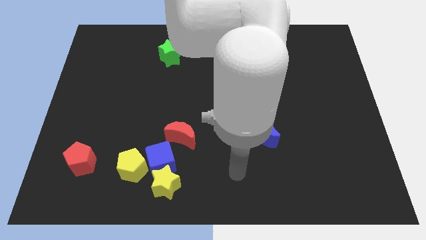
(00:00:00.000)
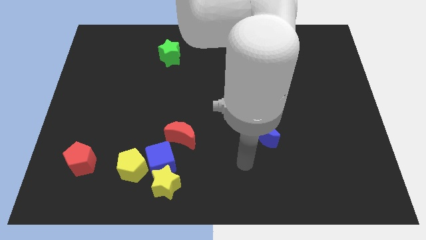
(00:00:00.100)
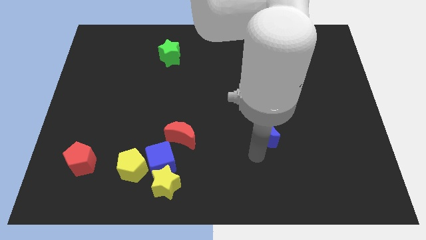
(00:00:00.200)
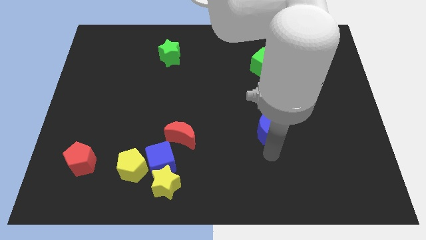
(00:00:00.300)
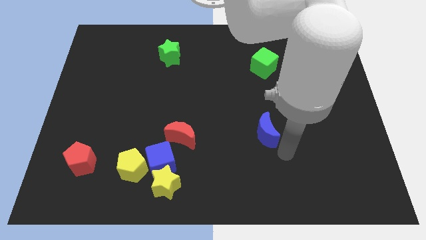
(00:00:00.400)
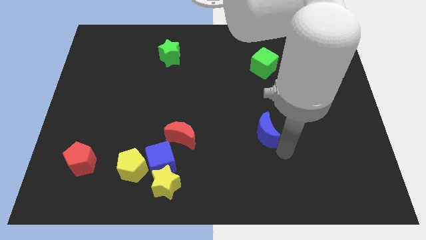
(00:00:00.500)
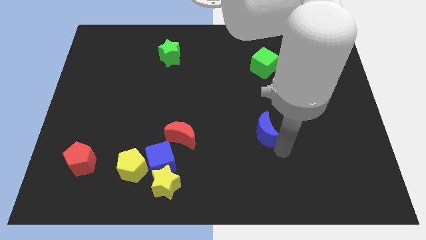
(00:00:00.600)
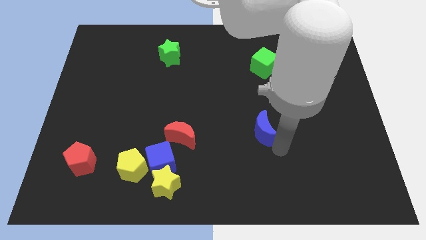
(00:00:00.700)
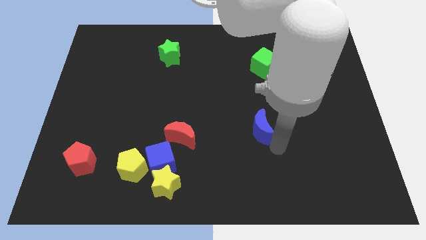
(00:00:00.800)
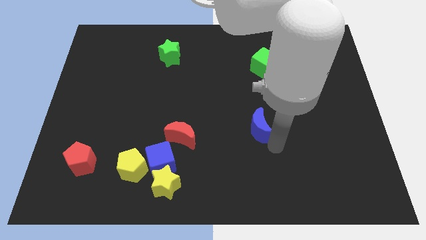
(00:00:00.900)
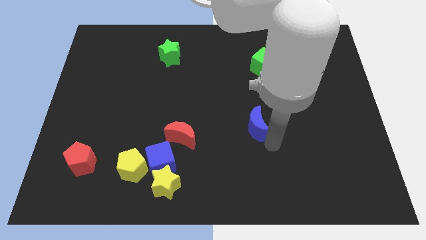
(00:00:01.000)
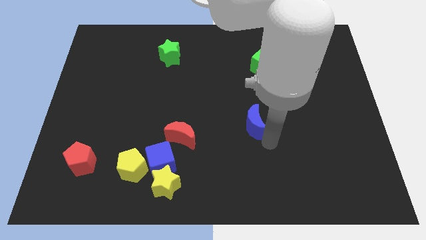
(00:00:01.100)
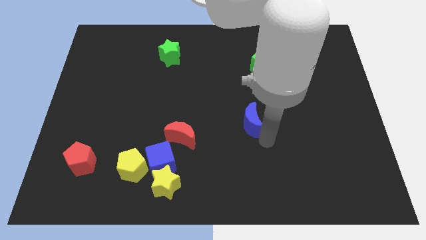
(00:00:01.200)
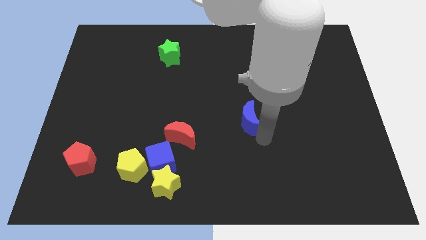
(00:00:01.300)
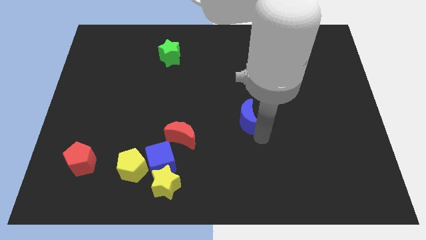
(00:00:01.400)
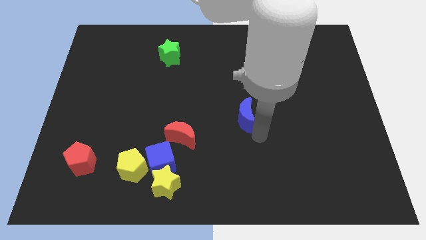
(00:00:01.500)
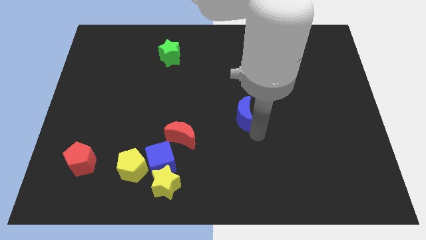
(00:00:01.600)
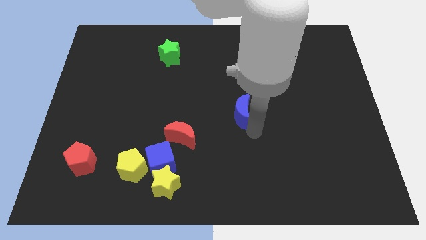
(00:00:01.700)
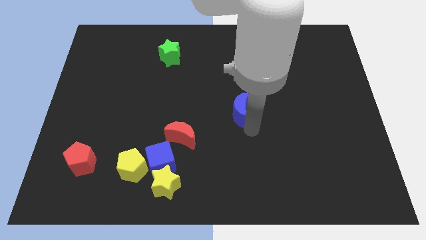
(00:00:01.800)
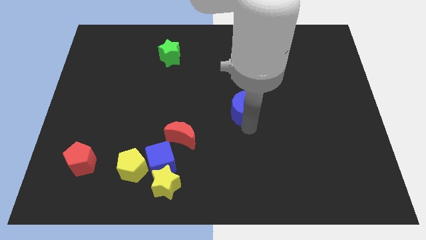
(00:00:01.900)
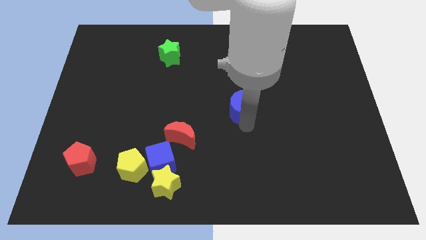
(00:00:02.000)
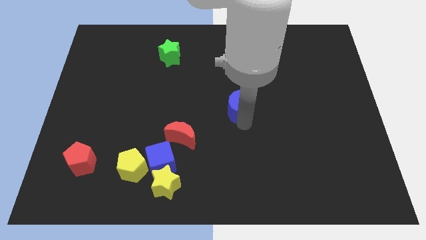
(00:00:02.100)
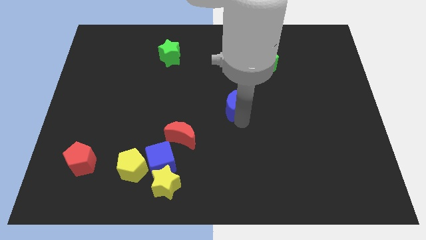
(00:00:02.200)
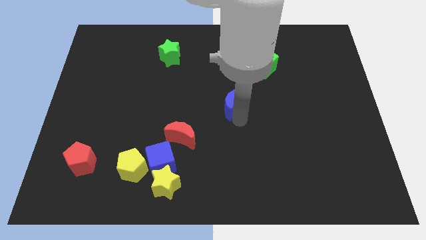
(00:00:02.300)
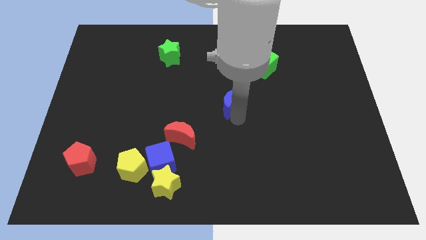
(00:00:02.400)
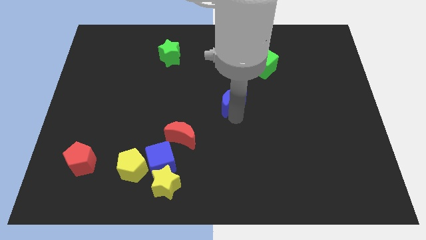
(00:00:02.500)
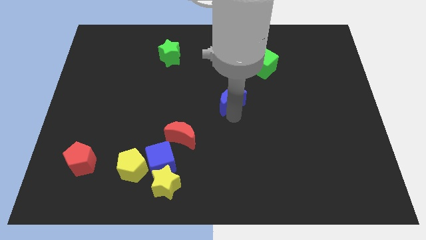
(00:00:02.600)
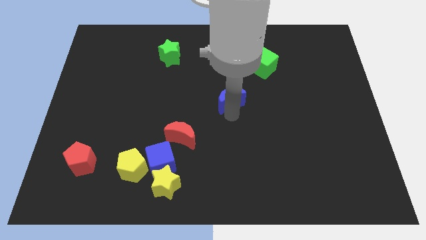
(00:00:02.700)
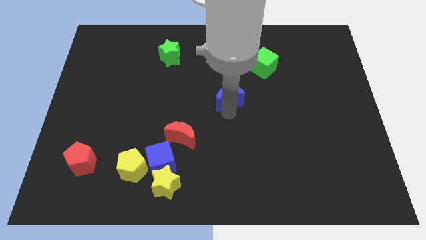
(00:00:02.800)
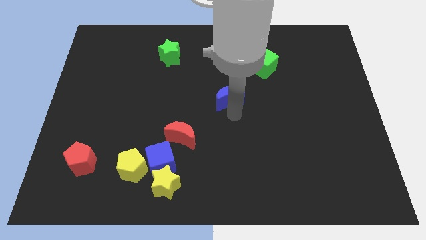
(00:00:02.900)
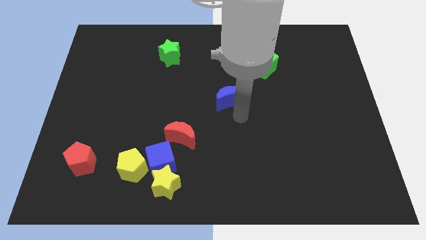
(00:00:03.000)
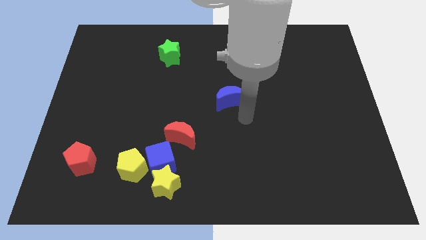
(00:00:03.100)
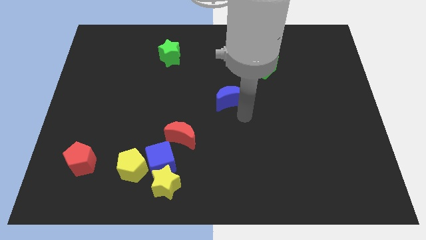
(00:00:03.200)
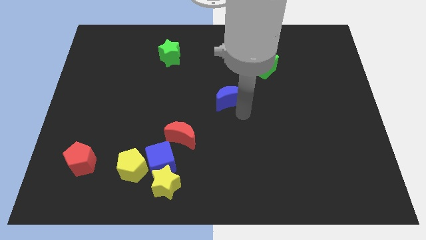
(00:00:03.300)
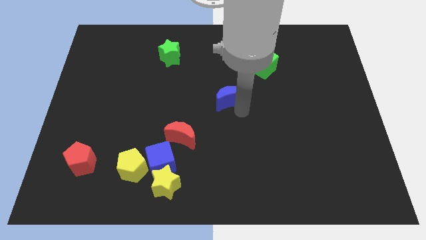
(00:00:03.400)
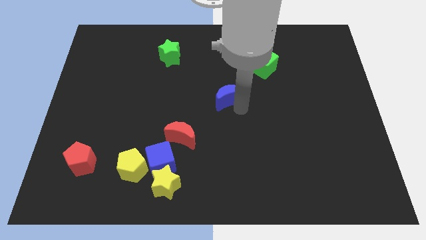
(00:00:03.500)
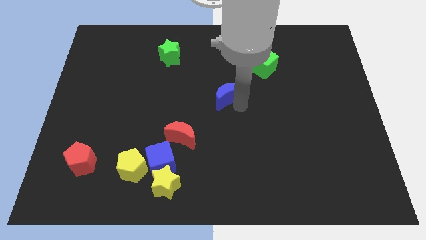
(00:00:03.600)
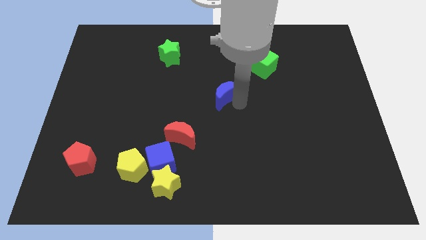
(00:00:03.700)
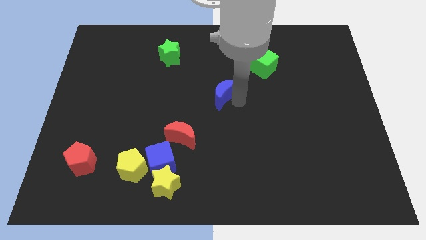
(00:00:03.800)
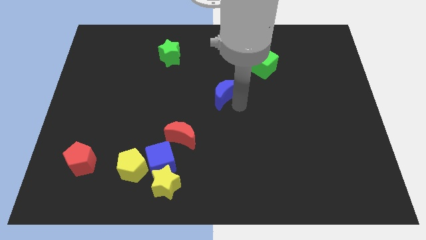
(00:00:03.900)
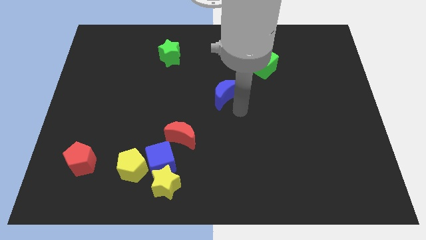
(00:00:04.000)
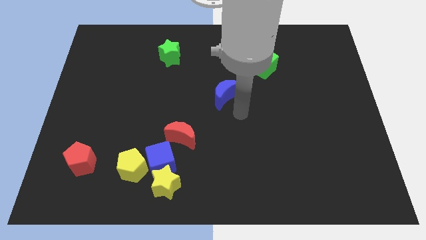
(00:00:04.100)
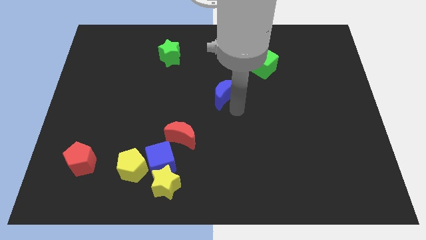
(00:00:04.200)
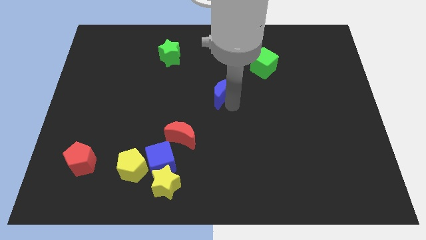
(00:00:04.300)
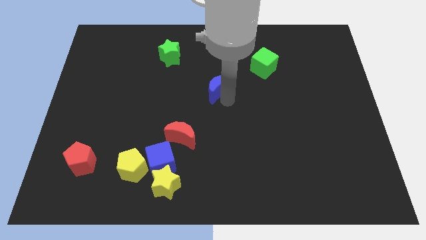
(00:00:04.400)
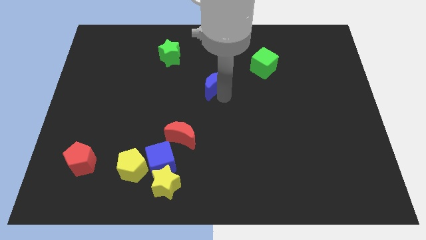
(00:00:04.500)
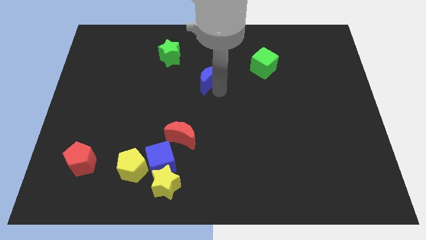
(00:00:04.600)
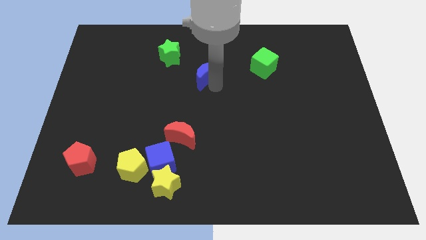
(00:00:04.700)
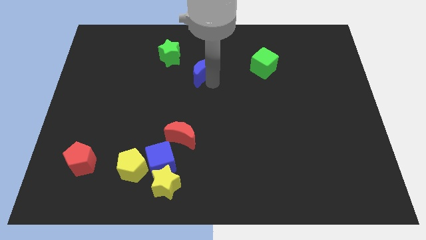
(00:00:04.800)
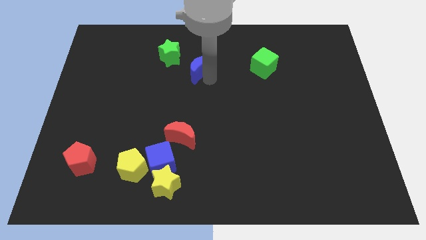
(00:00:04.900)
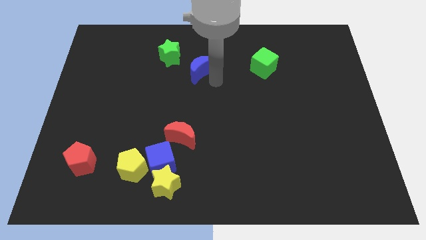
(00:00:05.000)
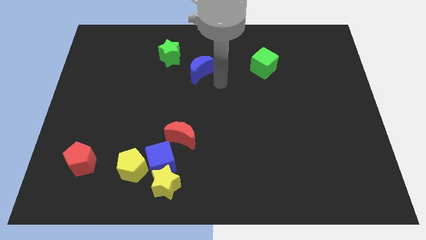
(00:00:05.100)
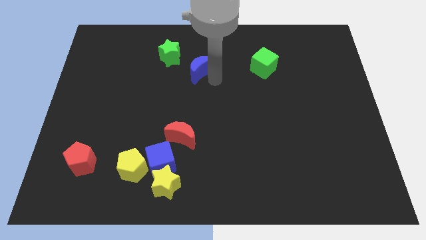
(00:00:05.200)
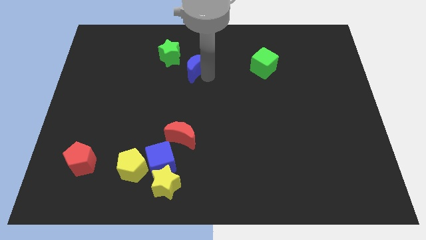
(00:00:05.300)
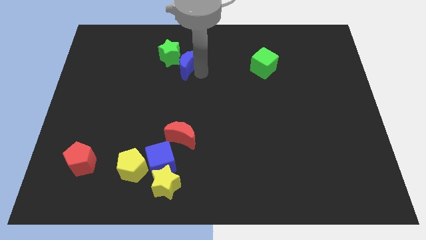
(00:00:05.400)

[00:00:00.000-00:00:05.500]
slide the blue moon to the green star

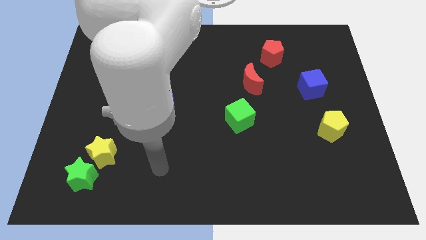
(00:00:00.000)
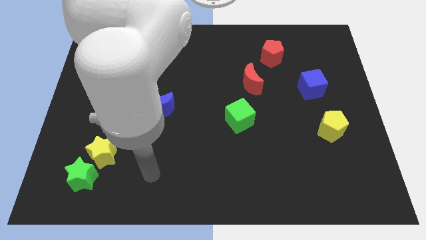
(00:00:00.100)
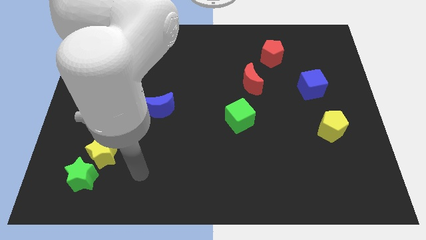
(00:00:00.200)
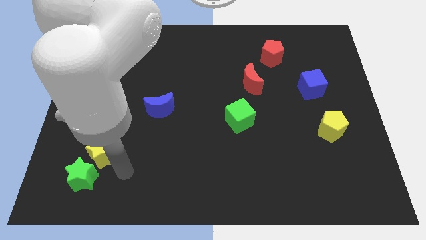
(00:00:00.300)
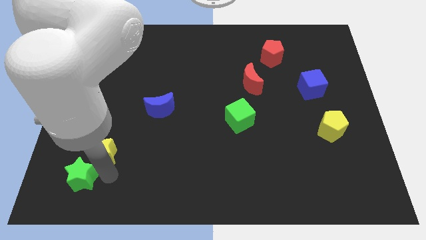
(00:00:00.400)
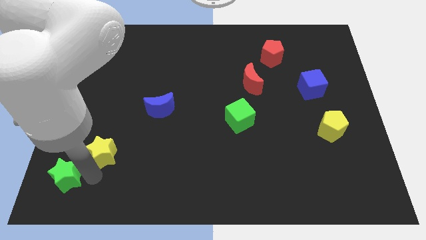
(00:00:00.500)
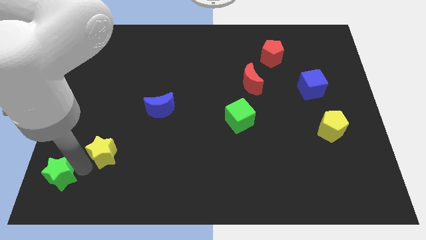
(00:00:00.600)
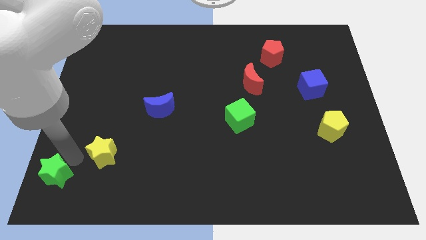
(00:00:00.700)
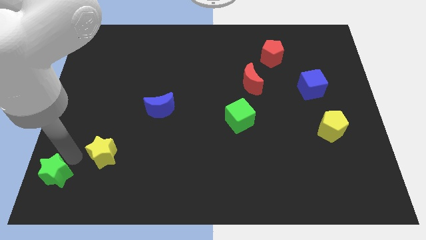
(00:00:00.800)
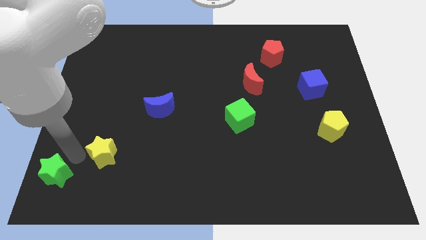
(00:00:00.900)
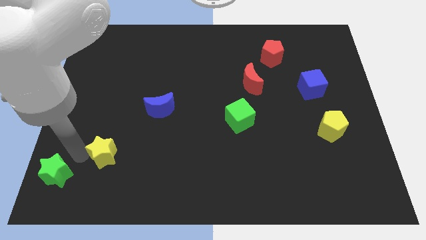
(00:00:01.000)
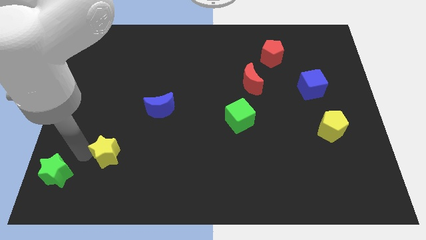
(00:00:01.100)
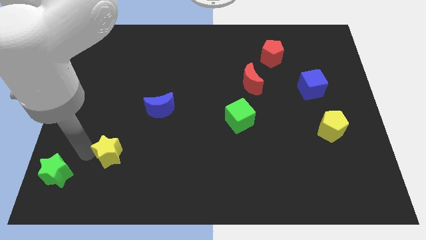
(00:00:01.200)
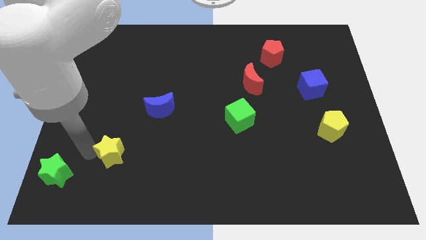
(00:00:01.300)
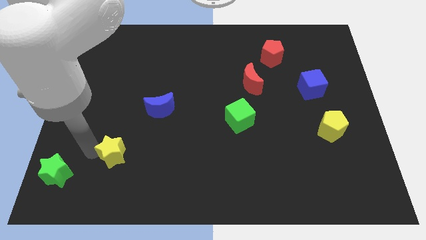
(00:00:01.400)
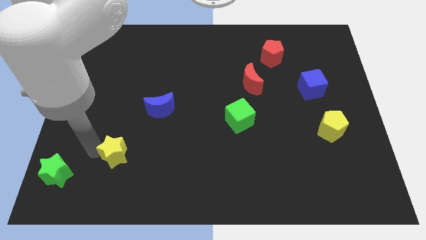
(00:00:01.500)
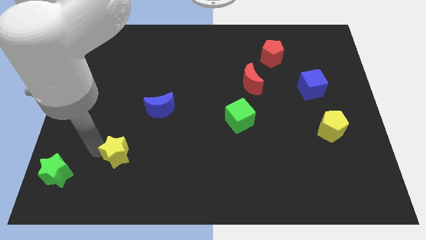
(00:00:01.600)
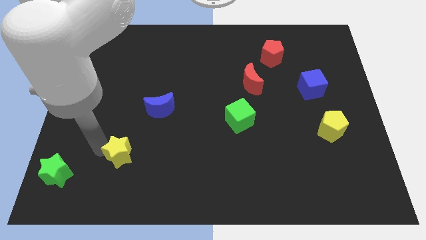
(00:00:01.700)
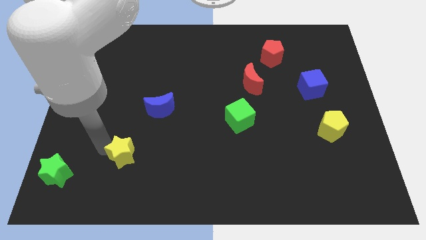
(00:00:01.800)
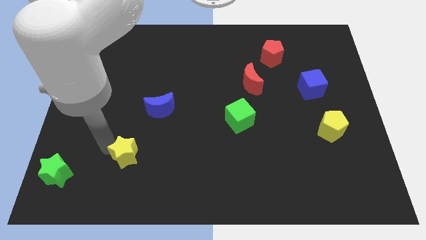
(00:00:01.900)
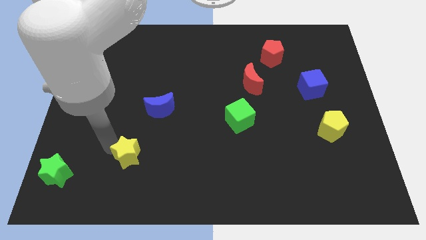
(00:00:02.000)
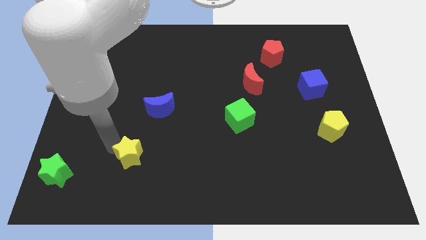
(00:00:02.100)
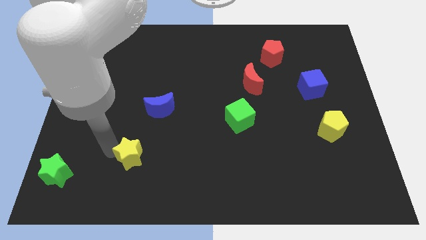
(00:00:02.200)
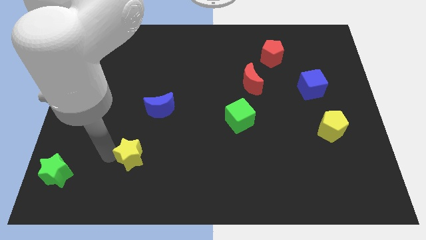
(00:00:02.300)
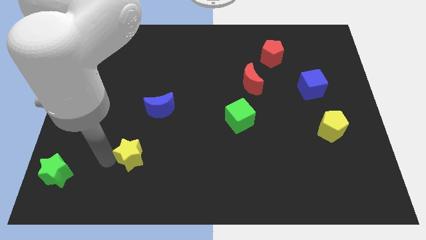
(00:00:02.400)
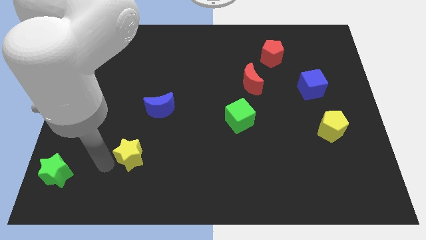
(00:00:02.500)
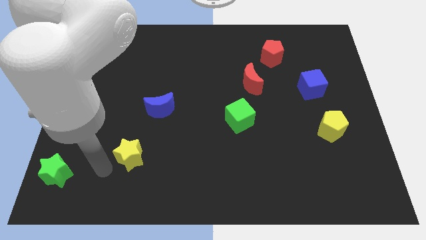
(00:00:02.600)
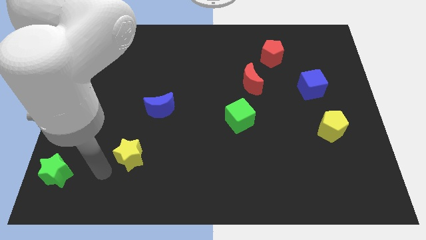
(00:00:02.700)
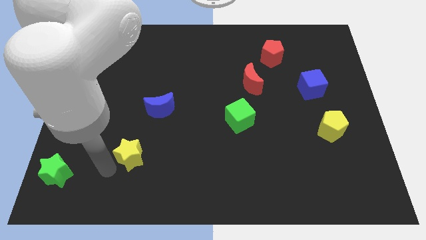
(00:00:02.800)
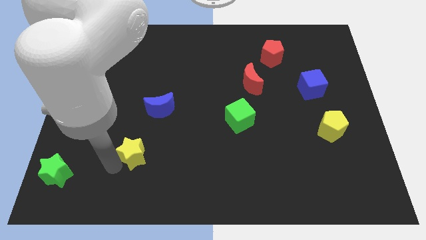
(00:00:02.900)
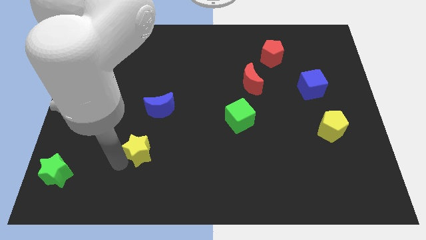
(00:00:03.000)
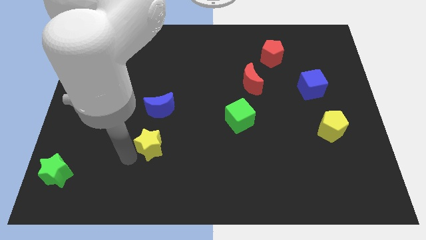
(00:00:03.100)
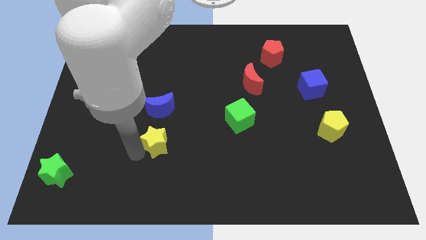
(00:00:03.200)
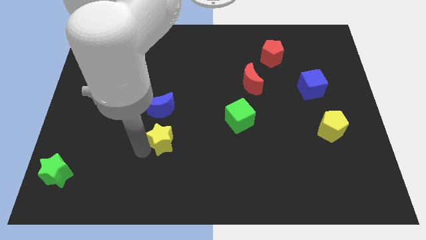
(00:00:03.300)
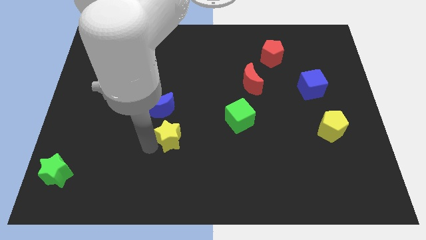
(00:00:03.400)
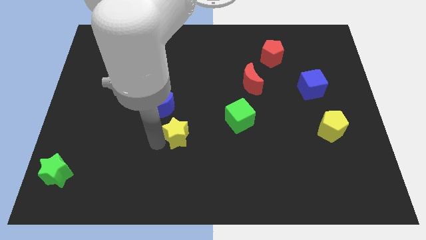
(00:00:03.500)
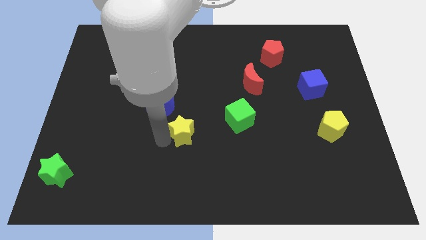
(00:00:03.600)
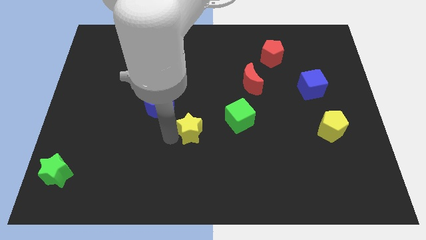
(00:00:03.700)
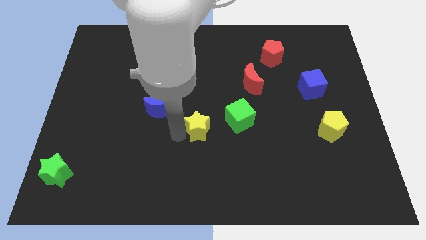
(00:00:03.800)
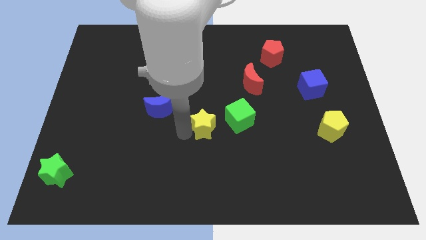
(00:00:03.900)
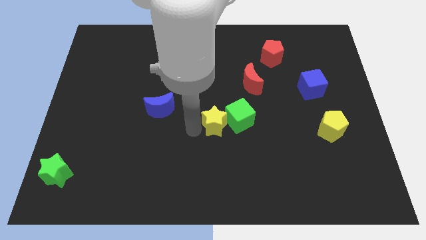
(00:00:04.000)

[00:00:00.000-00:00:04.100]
move the yellow star next to the green cube
